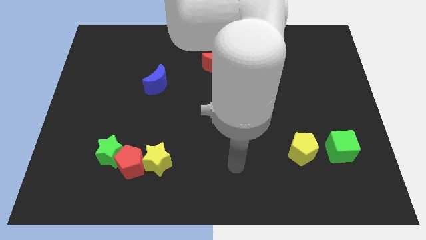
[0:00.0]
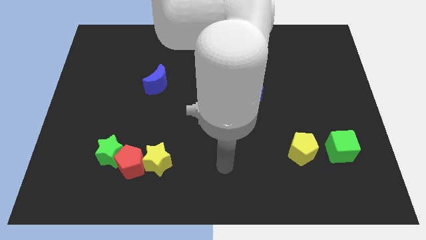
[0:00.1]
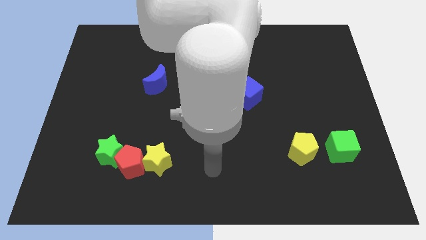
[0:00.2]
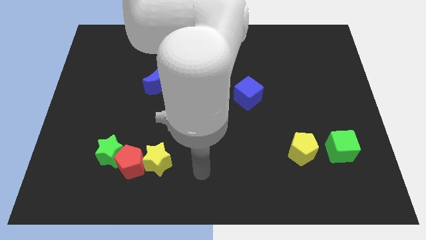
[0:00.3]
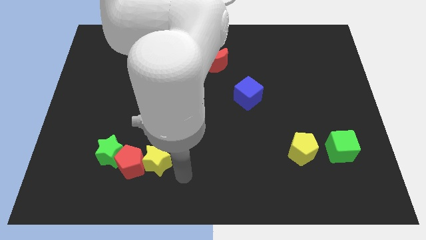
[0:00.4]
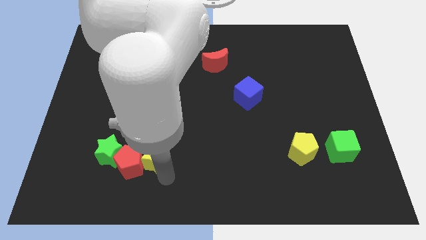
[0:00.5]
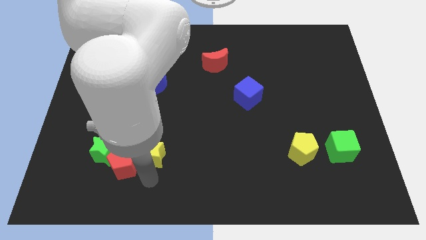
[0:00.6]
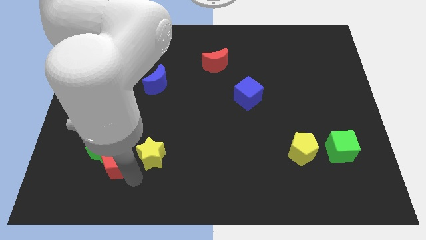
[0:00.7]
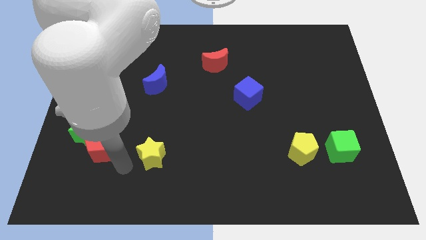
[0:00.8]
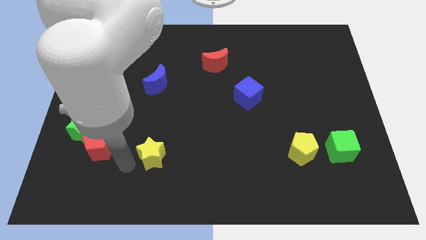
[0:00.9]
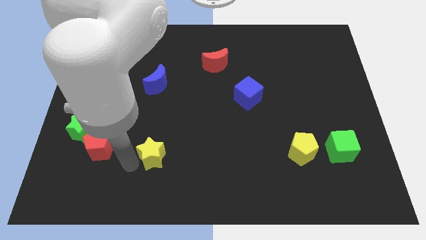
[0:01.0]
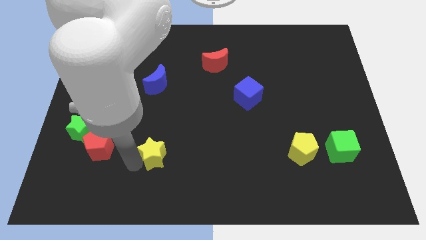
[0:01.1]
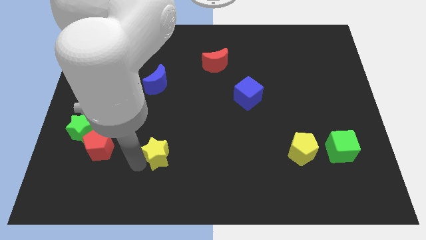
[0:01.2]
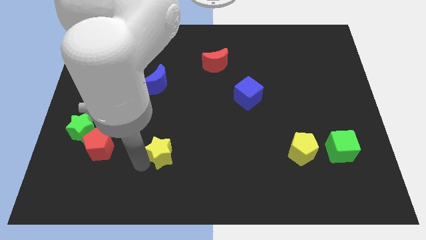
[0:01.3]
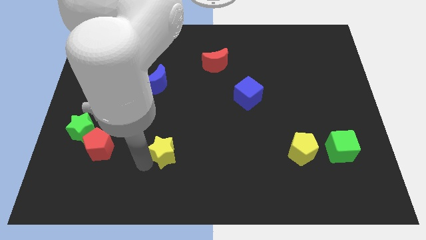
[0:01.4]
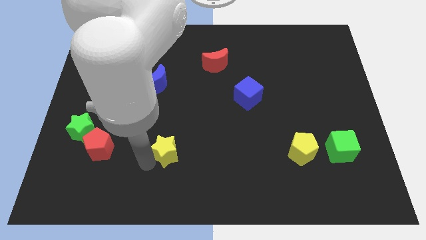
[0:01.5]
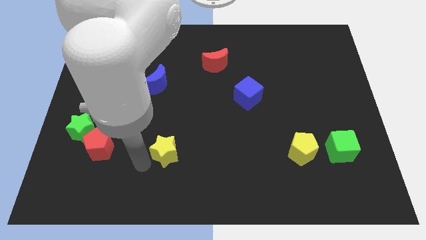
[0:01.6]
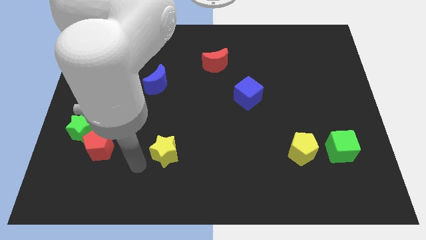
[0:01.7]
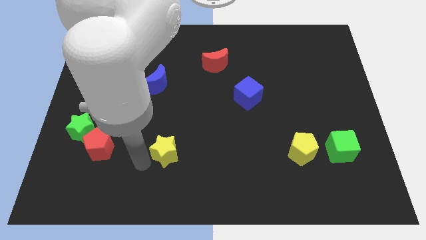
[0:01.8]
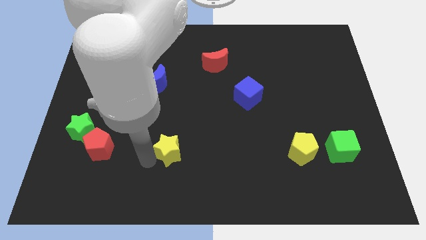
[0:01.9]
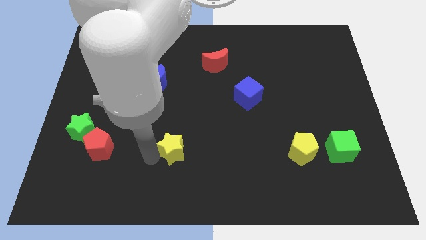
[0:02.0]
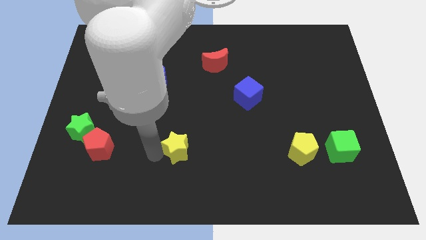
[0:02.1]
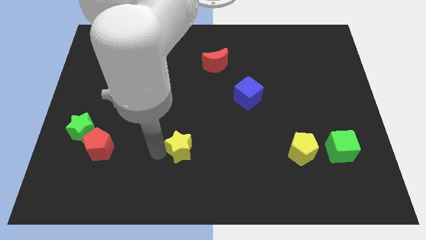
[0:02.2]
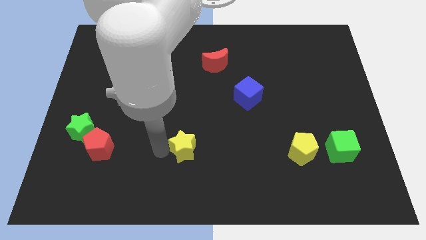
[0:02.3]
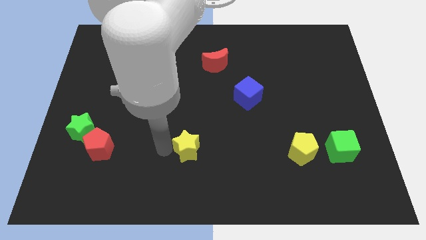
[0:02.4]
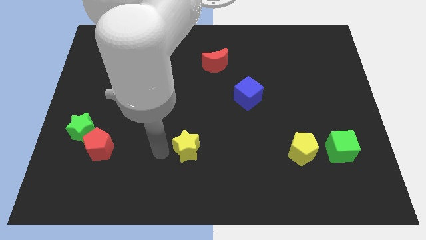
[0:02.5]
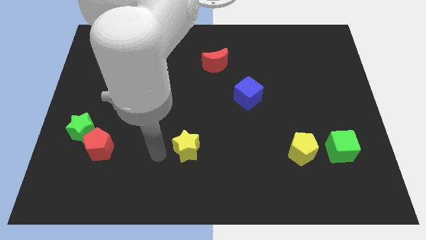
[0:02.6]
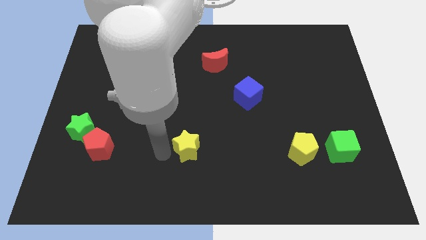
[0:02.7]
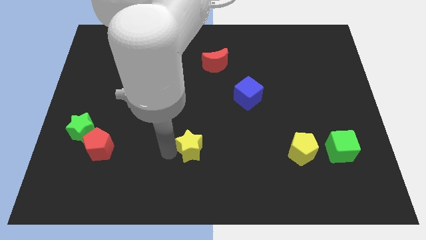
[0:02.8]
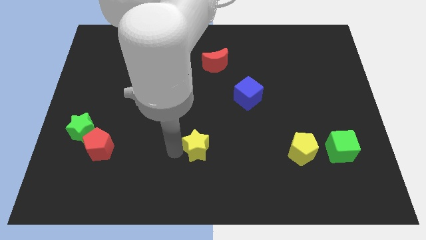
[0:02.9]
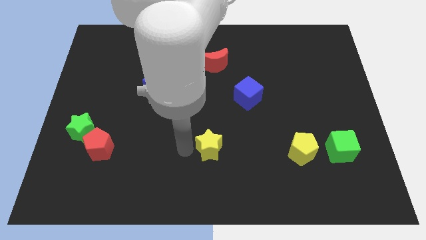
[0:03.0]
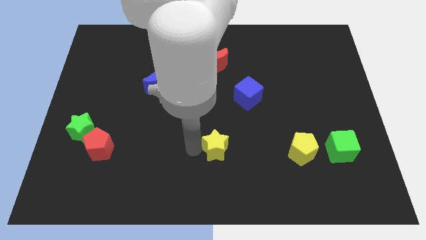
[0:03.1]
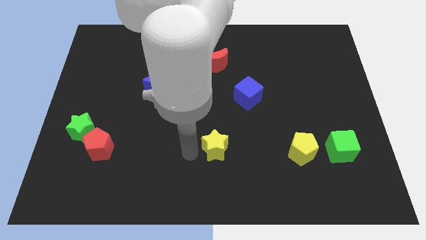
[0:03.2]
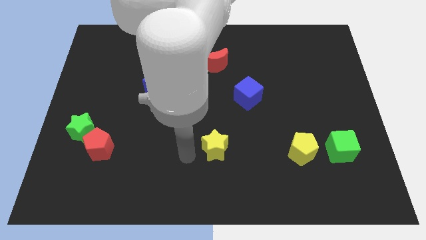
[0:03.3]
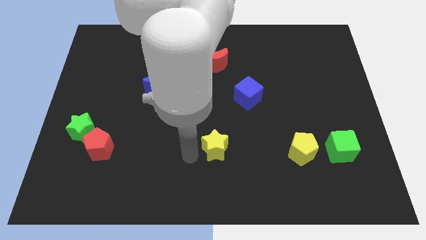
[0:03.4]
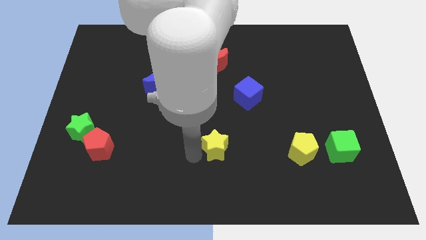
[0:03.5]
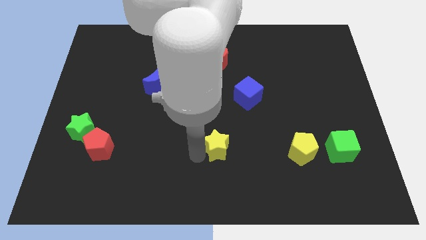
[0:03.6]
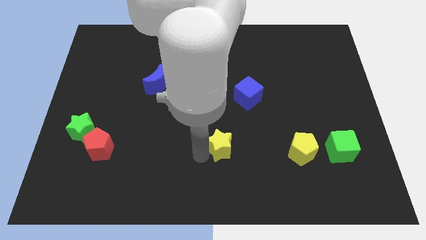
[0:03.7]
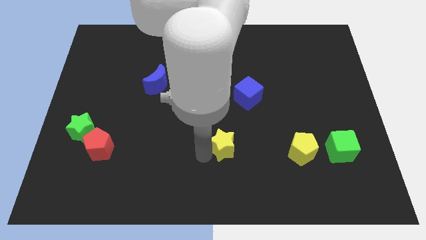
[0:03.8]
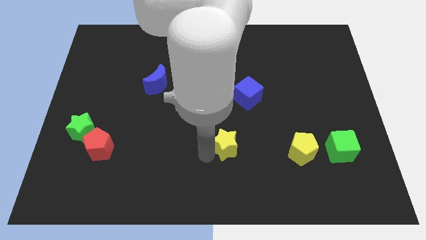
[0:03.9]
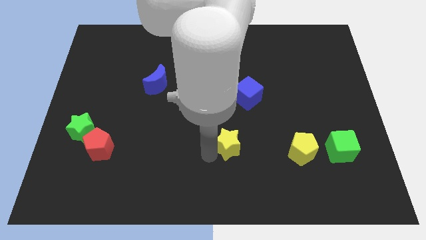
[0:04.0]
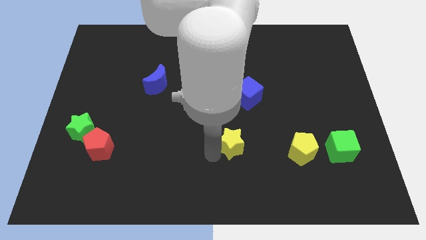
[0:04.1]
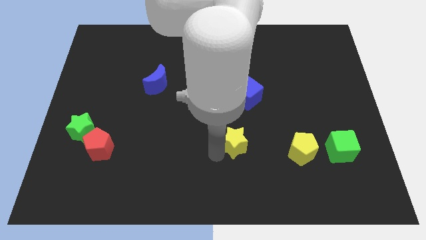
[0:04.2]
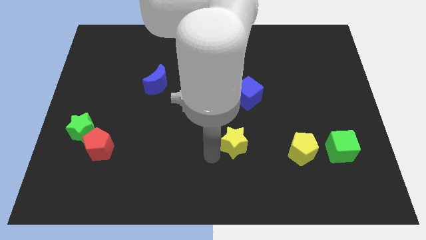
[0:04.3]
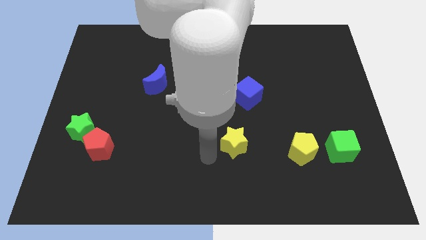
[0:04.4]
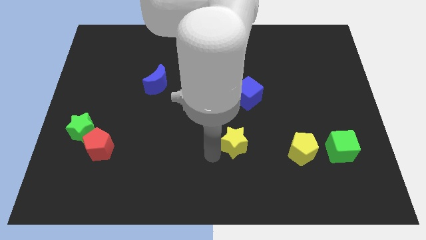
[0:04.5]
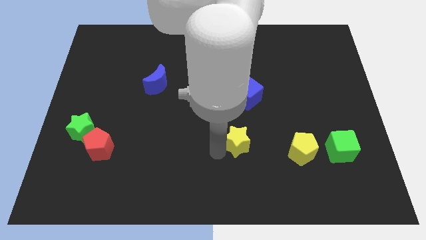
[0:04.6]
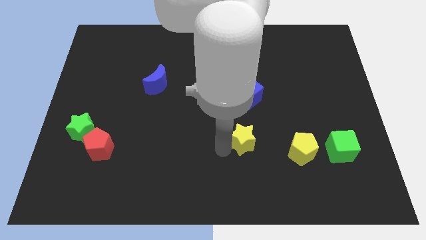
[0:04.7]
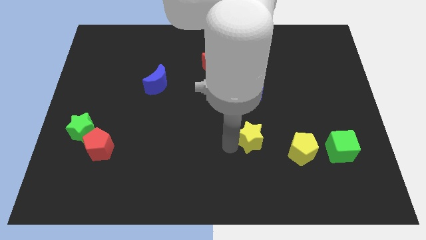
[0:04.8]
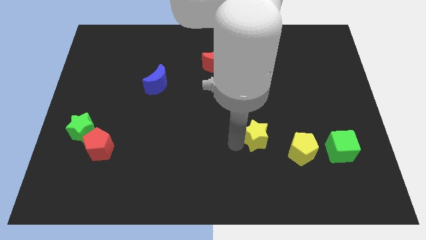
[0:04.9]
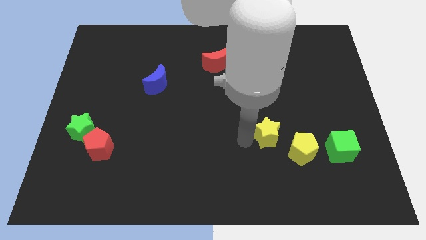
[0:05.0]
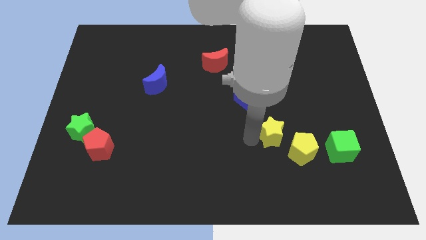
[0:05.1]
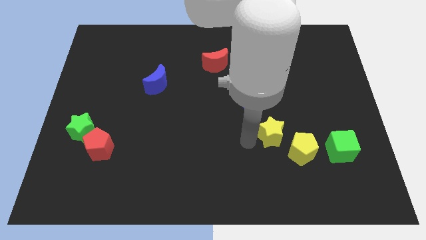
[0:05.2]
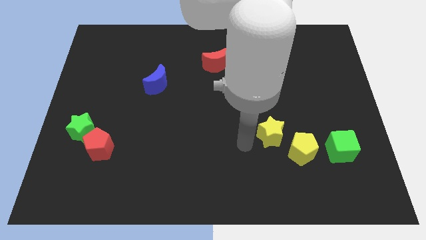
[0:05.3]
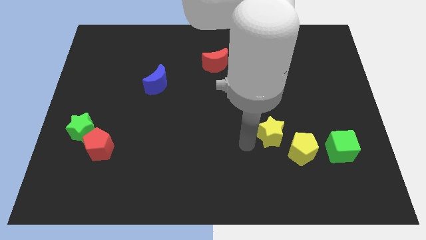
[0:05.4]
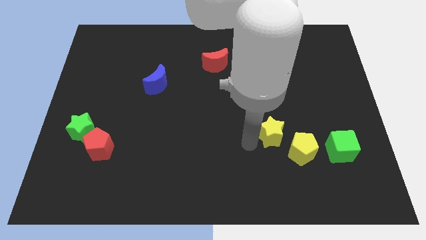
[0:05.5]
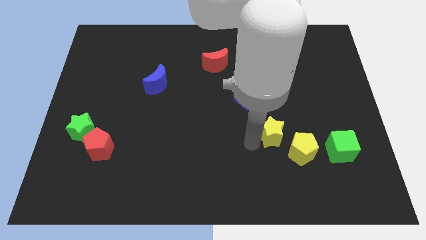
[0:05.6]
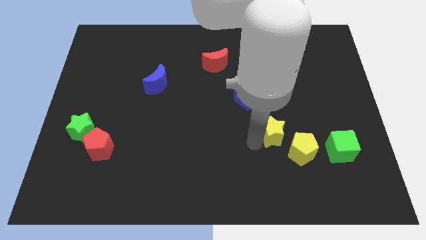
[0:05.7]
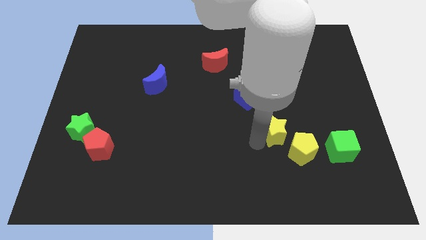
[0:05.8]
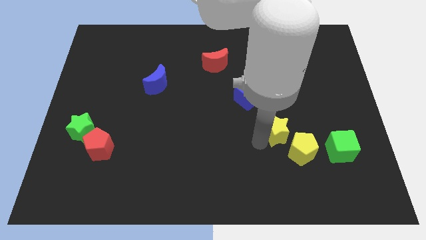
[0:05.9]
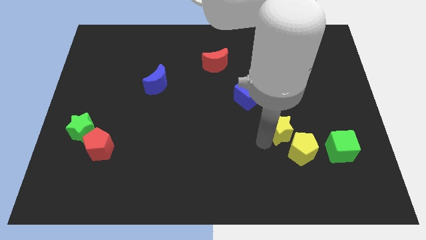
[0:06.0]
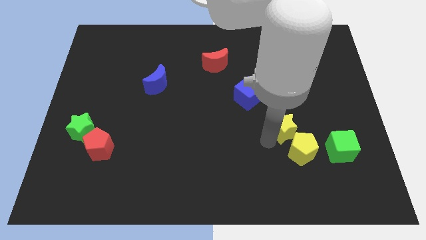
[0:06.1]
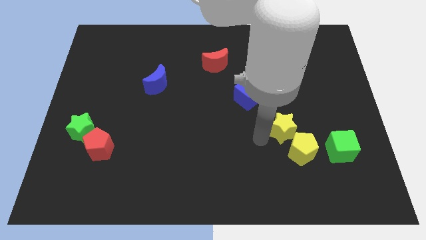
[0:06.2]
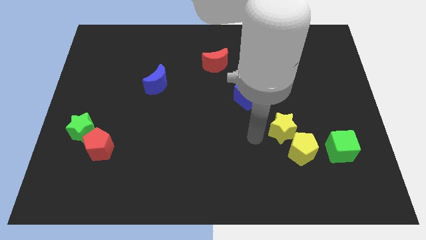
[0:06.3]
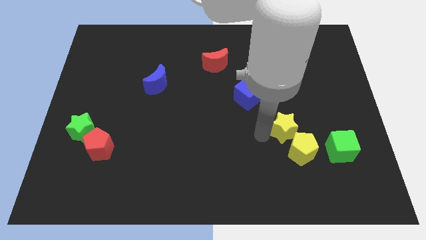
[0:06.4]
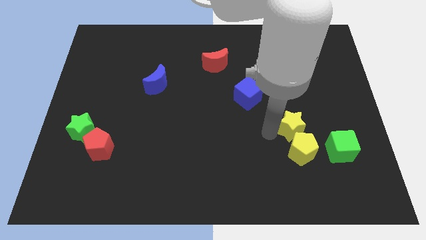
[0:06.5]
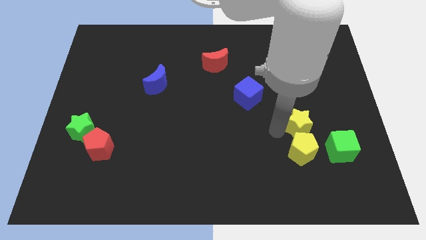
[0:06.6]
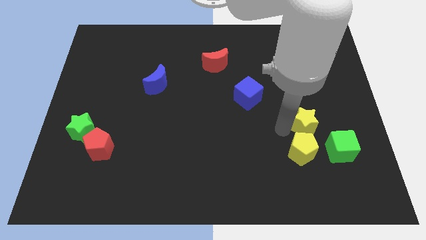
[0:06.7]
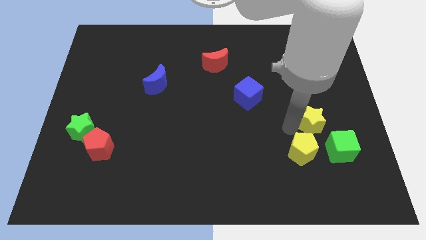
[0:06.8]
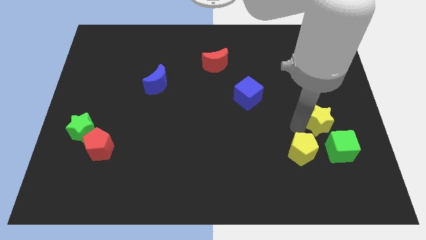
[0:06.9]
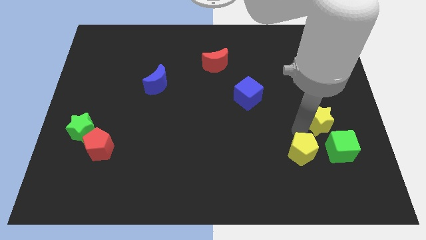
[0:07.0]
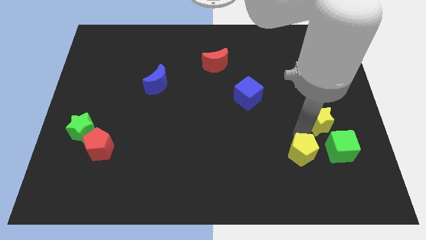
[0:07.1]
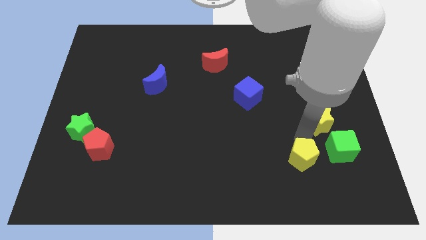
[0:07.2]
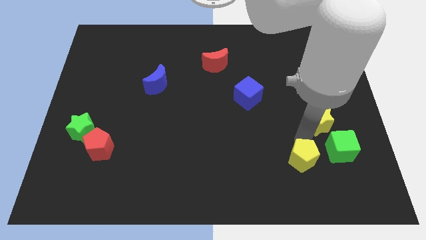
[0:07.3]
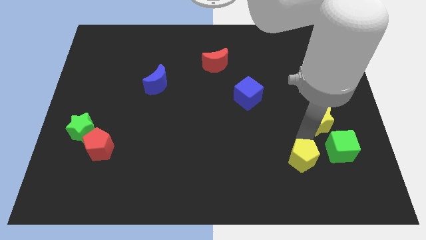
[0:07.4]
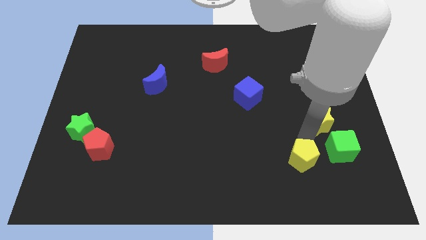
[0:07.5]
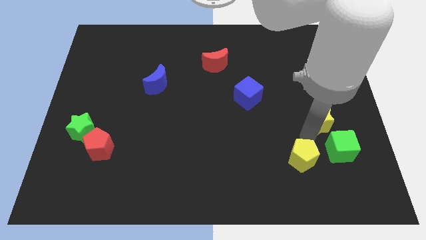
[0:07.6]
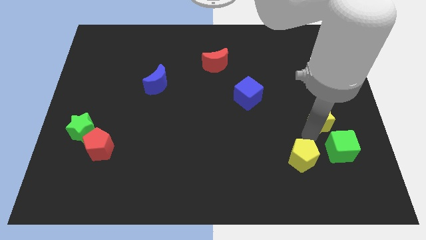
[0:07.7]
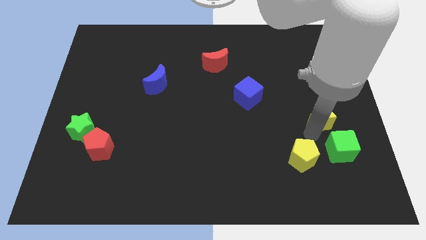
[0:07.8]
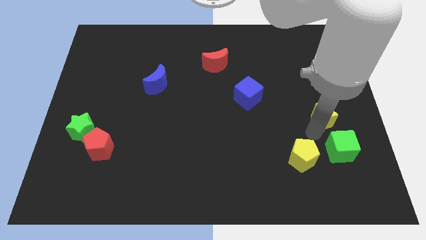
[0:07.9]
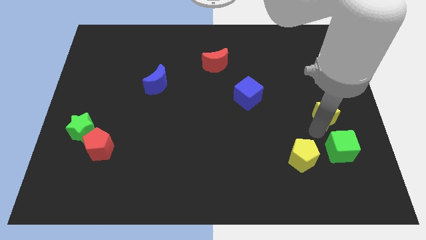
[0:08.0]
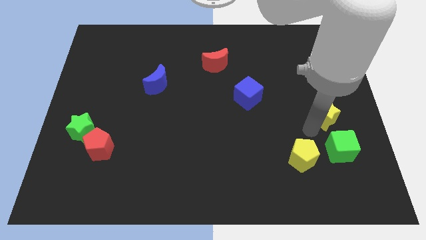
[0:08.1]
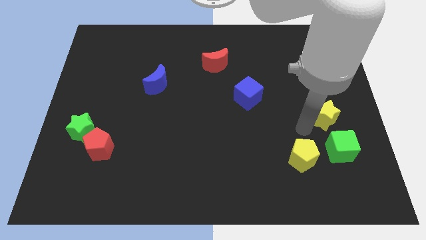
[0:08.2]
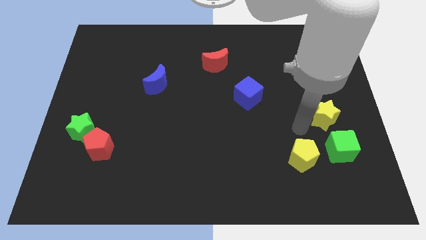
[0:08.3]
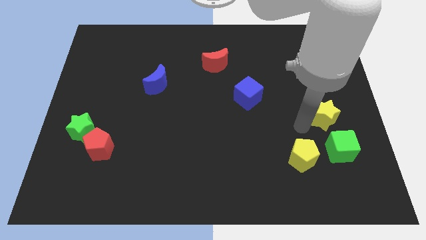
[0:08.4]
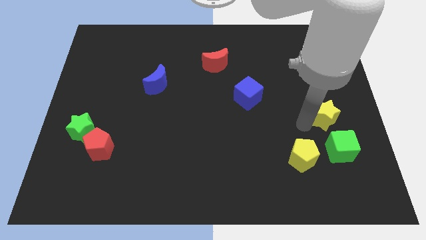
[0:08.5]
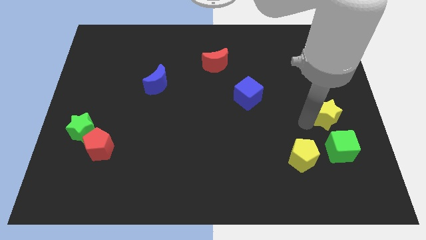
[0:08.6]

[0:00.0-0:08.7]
move the yellow star to the right side of the board
